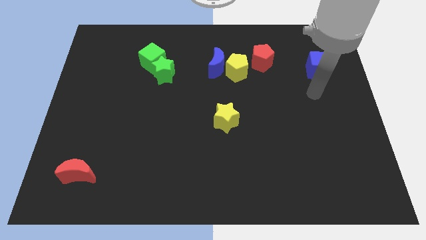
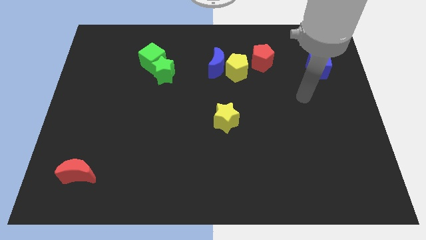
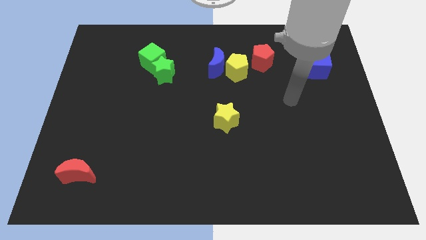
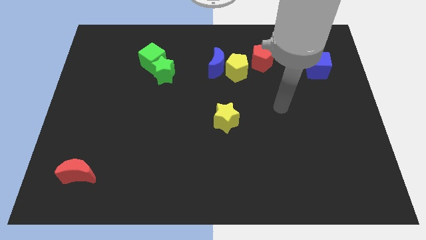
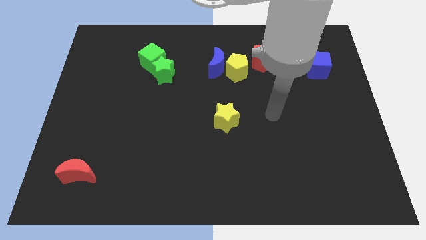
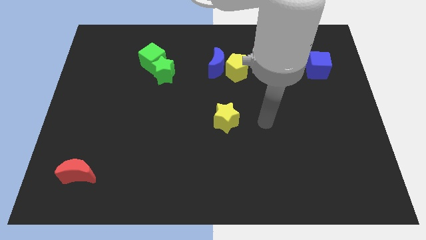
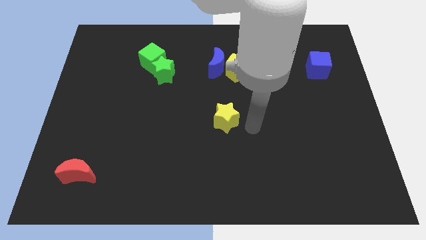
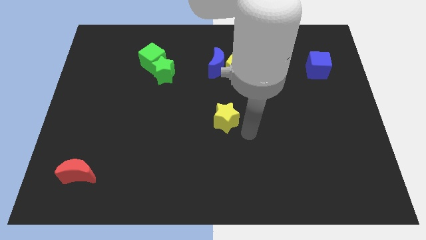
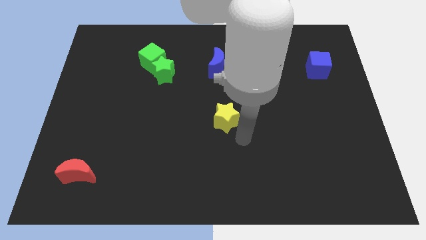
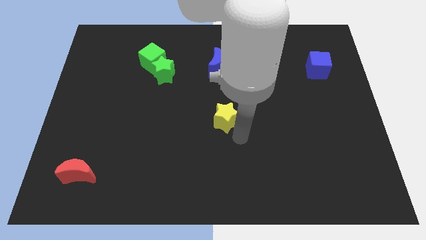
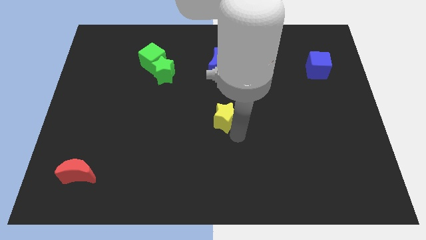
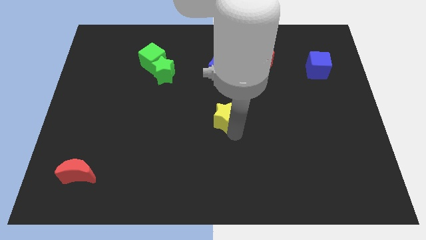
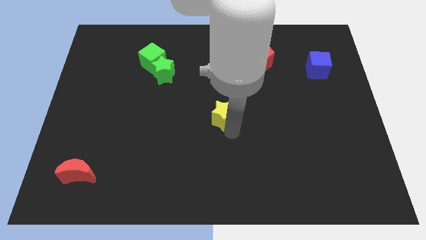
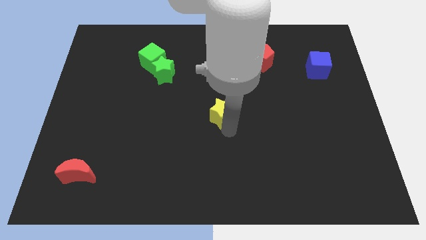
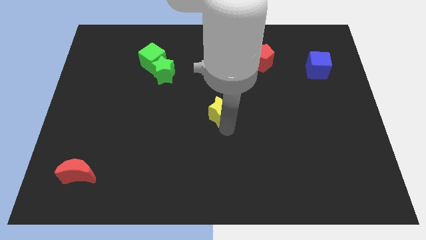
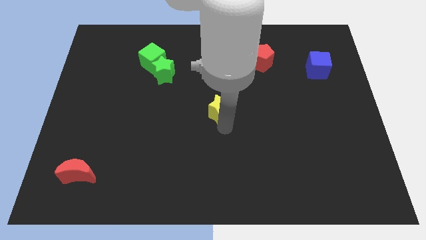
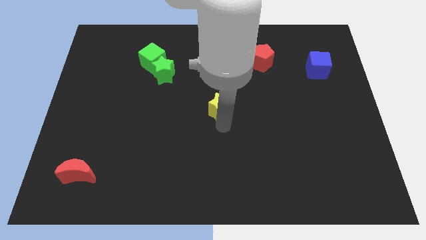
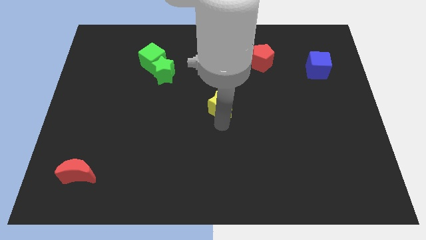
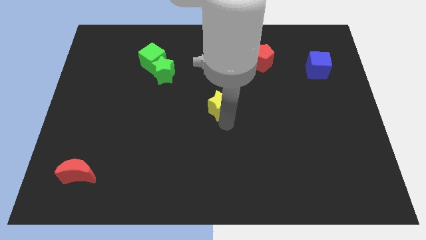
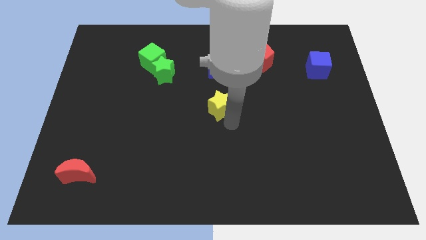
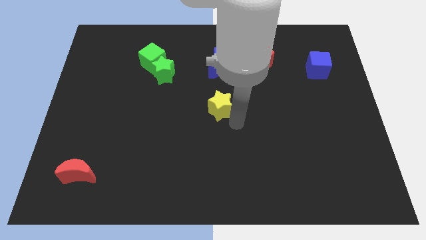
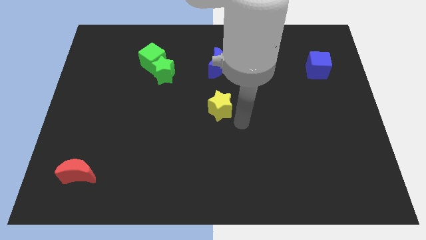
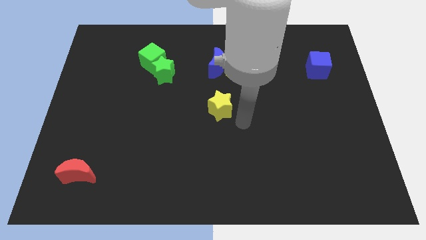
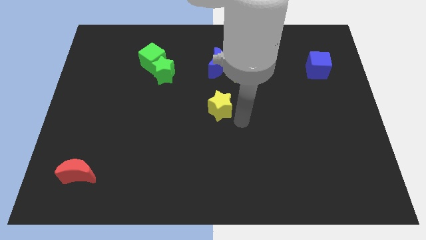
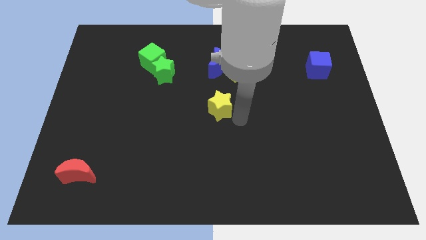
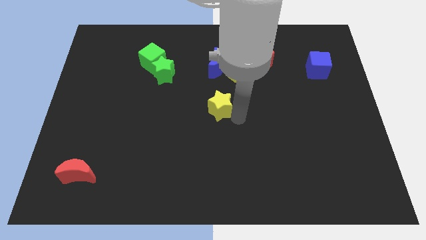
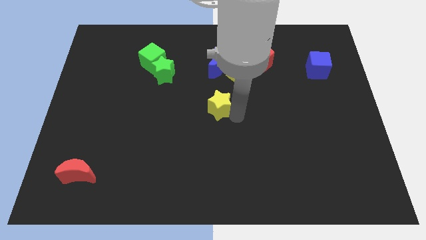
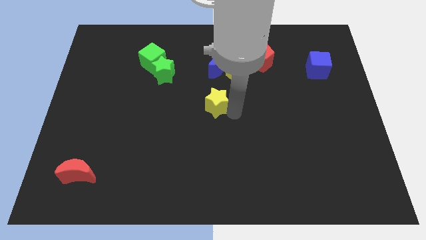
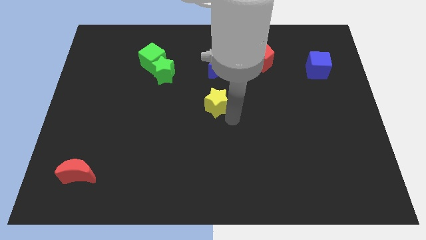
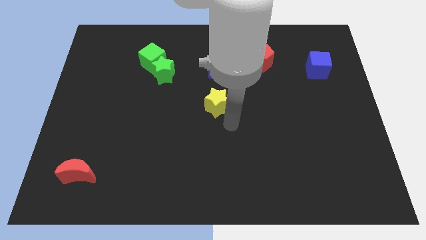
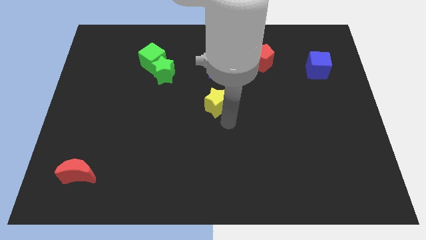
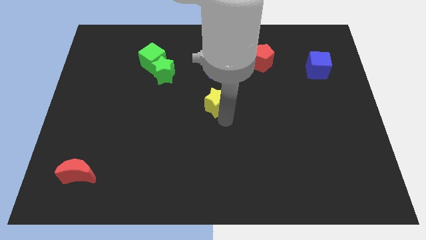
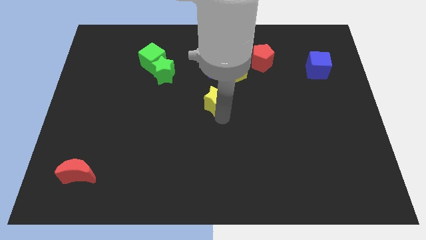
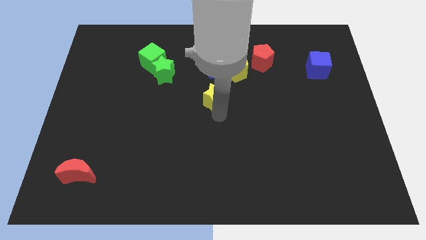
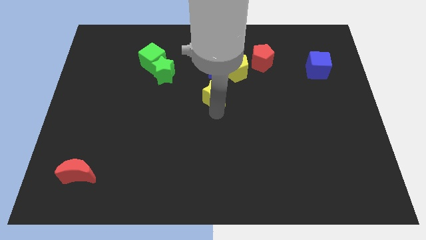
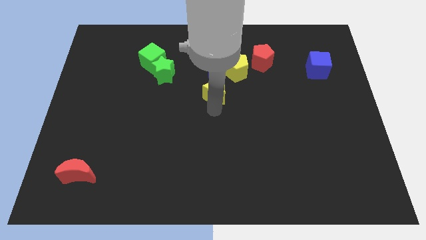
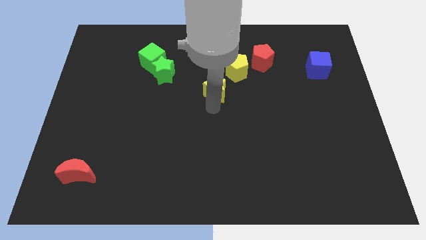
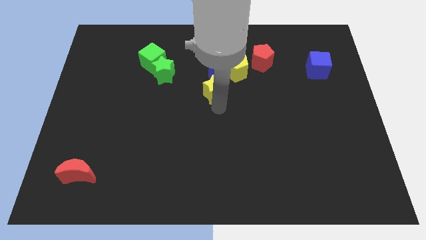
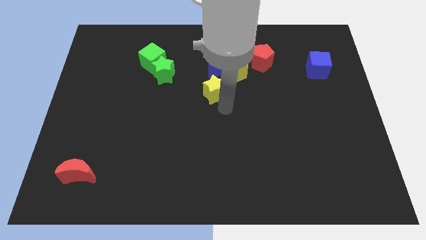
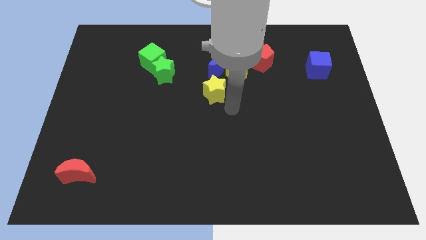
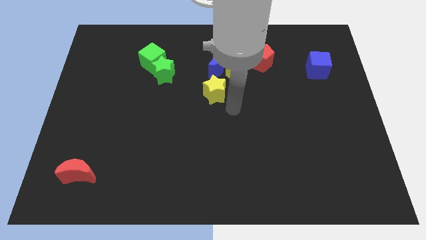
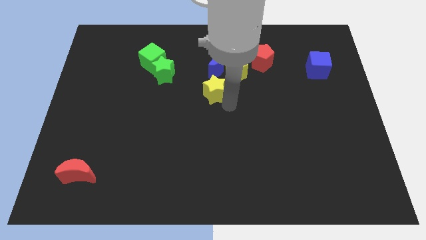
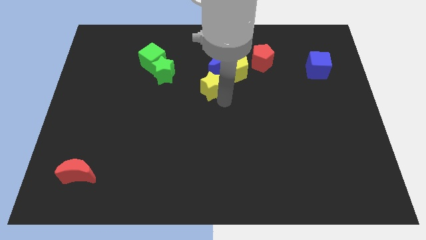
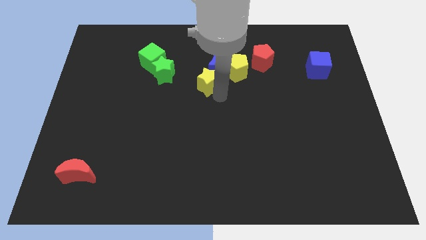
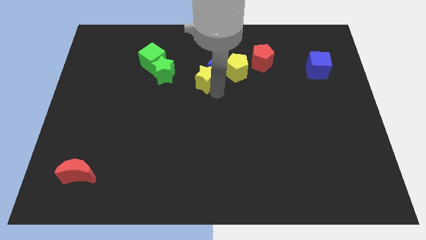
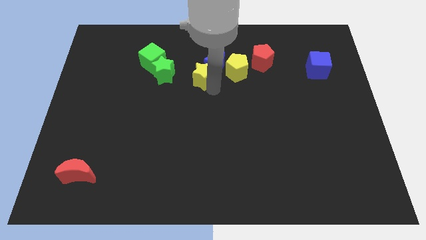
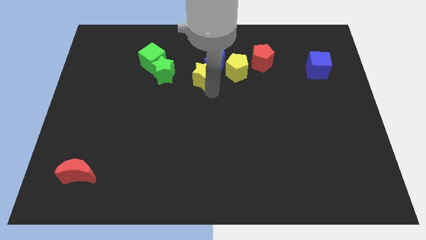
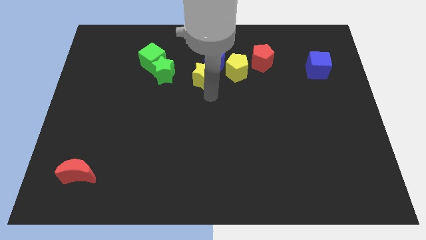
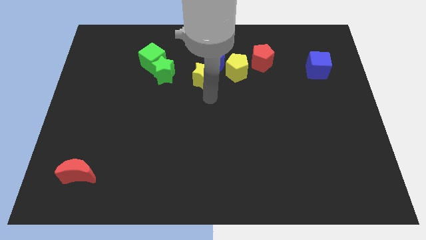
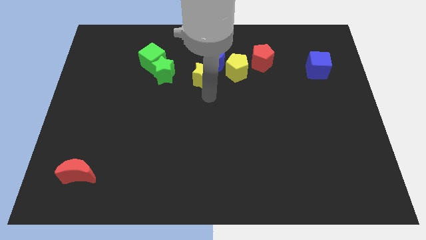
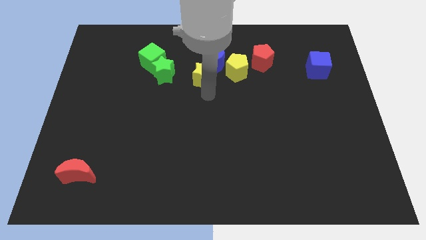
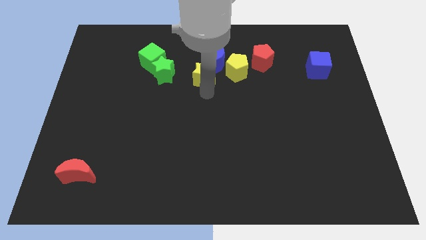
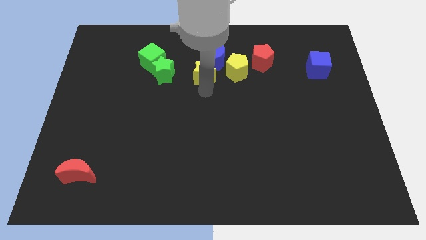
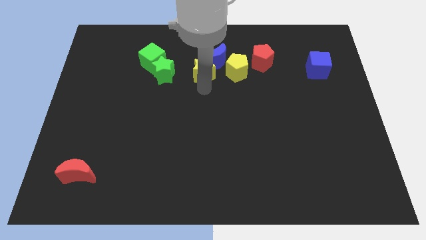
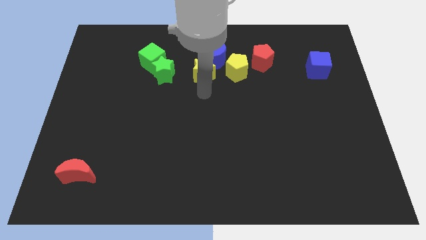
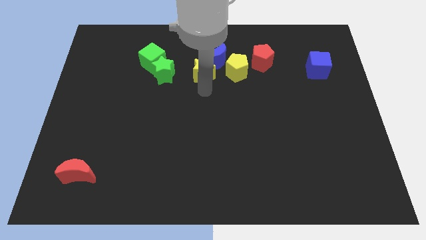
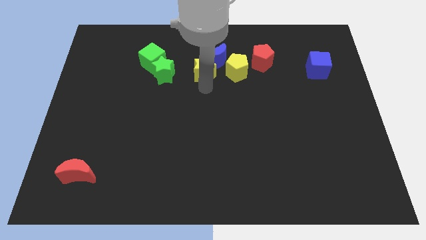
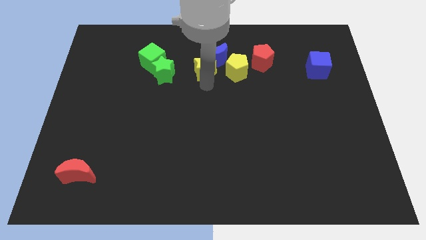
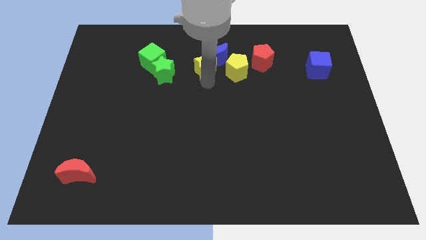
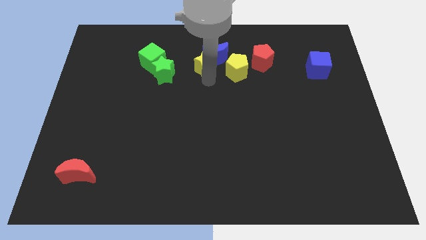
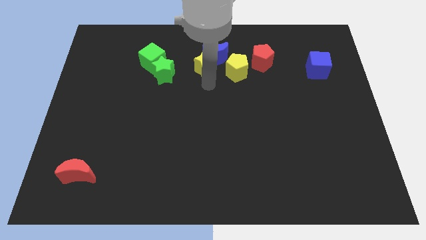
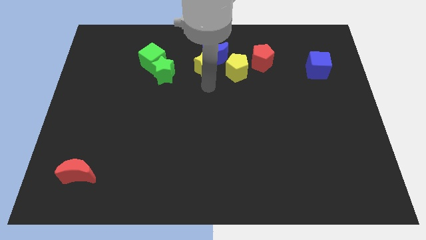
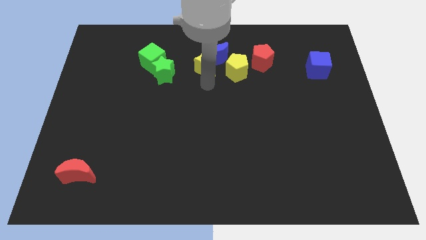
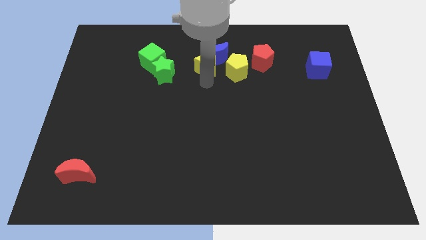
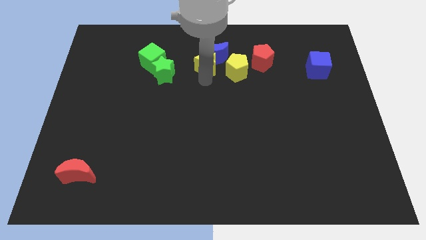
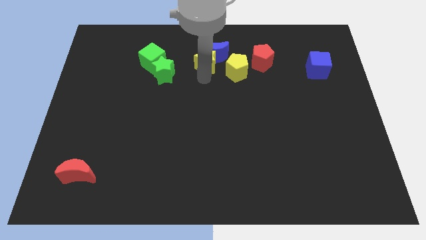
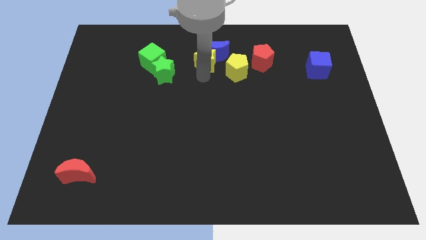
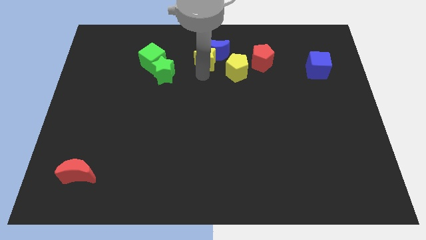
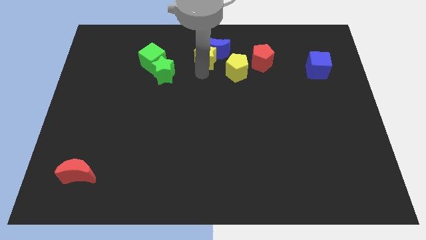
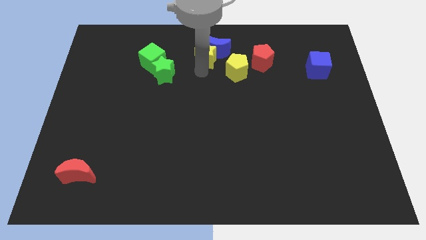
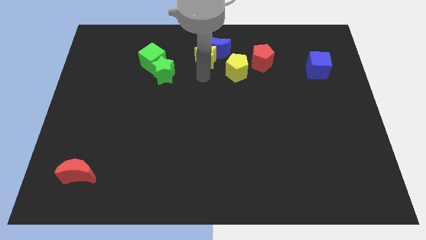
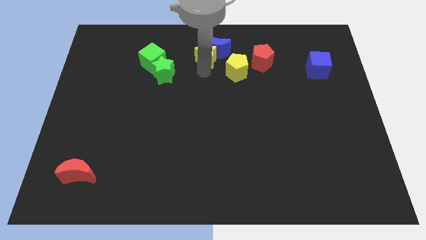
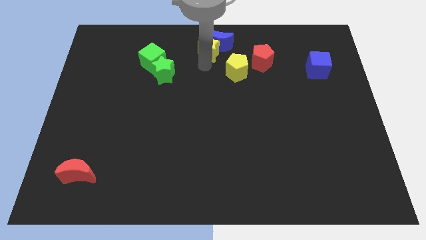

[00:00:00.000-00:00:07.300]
slide the yellow star to the top
